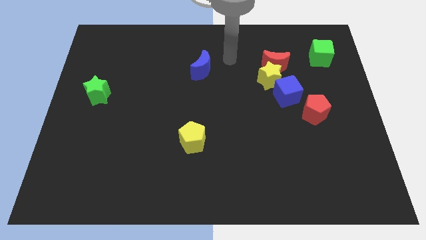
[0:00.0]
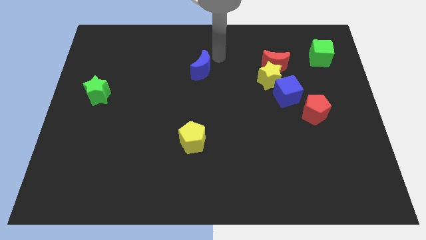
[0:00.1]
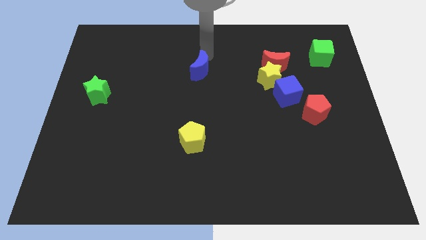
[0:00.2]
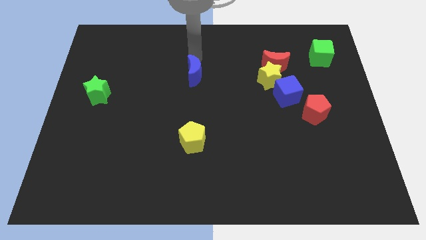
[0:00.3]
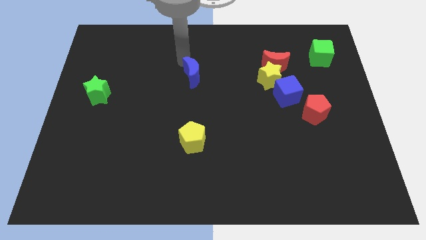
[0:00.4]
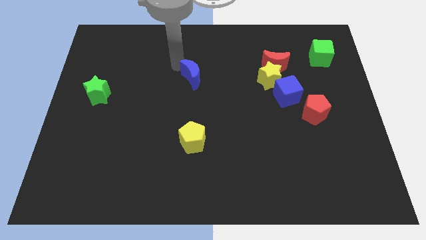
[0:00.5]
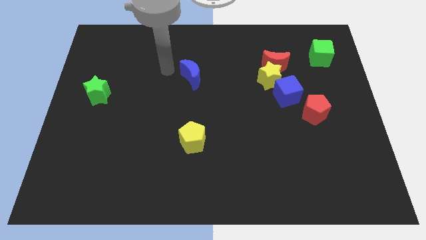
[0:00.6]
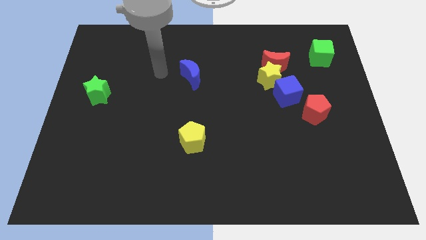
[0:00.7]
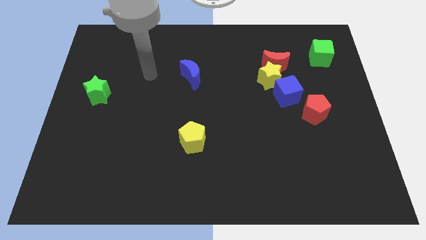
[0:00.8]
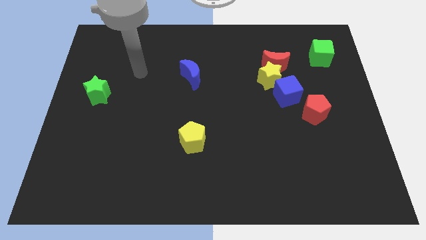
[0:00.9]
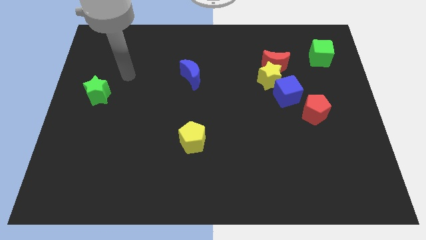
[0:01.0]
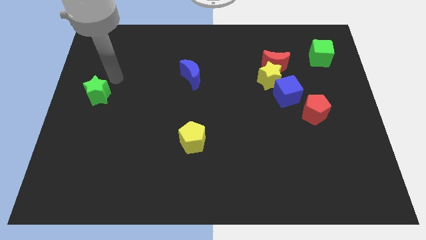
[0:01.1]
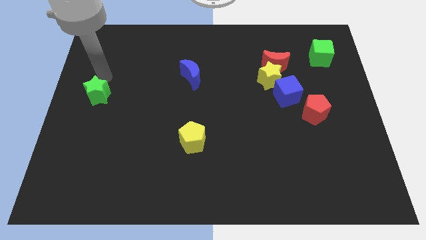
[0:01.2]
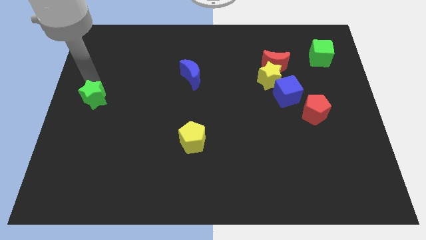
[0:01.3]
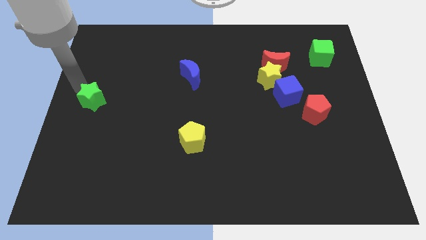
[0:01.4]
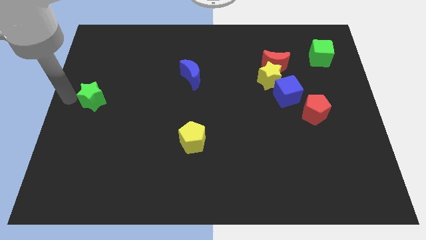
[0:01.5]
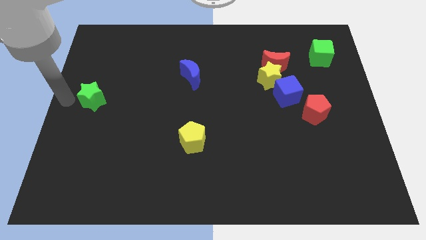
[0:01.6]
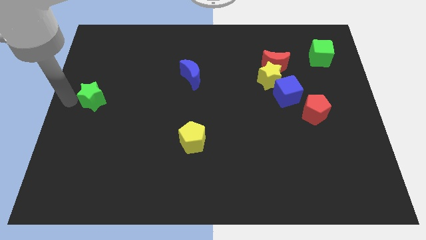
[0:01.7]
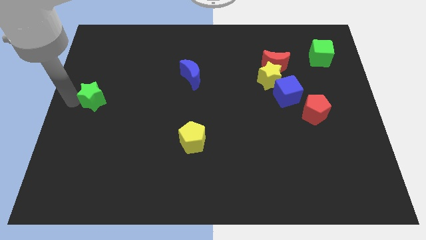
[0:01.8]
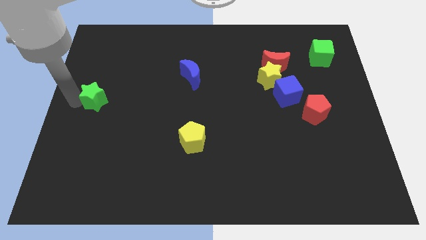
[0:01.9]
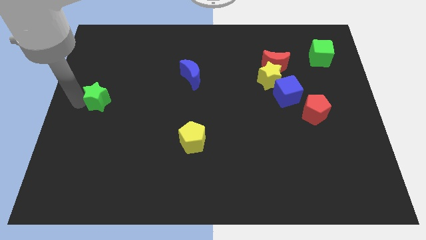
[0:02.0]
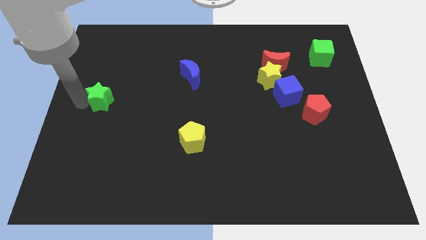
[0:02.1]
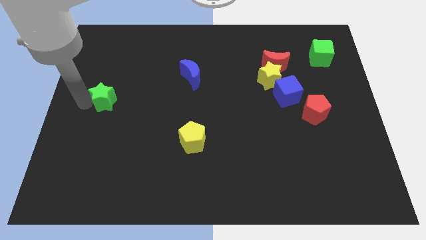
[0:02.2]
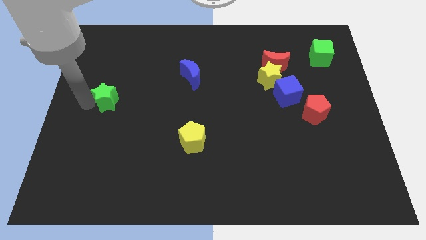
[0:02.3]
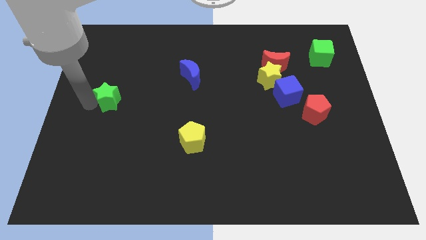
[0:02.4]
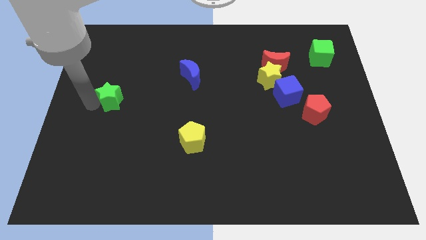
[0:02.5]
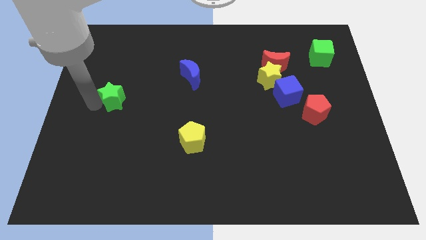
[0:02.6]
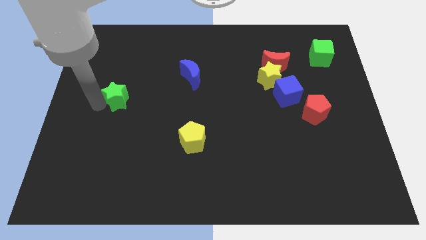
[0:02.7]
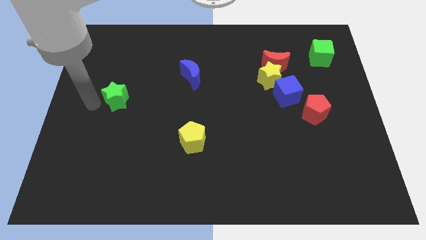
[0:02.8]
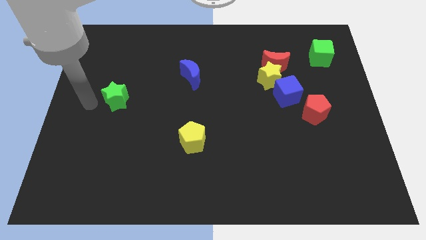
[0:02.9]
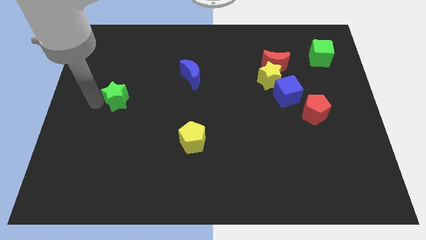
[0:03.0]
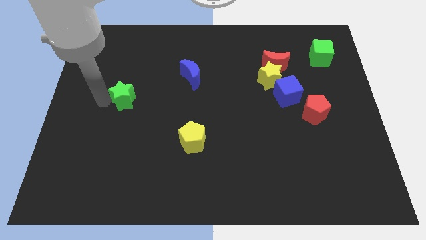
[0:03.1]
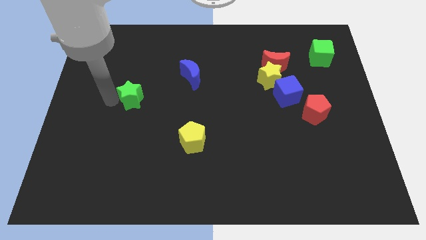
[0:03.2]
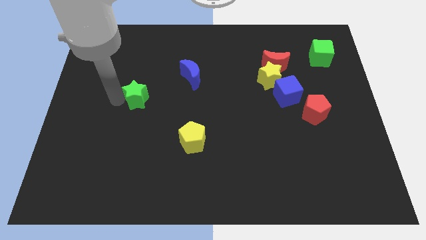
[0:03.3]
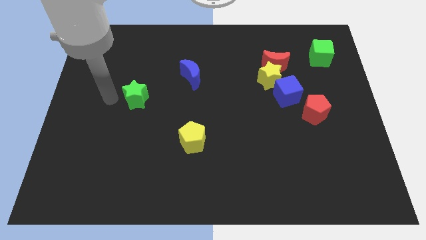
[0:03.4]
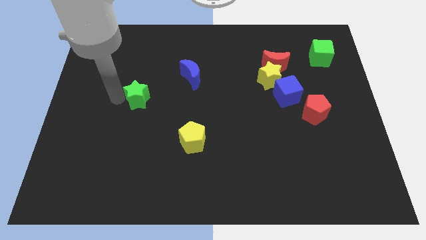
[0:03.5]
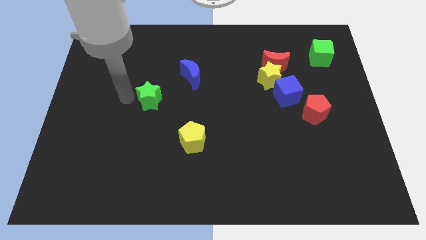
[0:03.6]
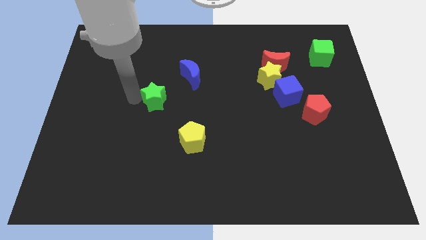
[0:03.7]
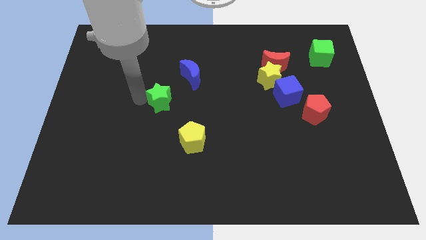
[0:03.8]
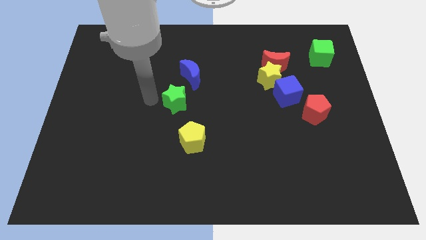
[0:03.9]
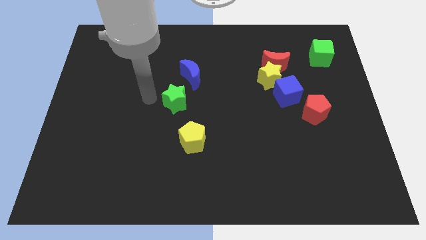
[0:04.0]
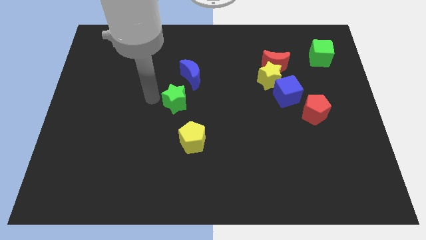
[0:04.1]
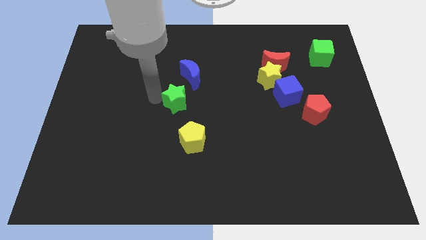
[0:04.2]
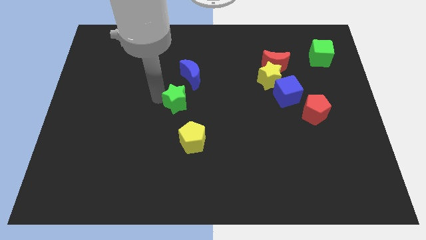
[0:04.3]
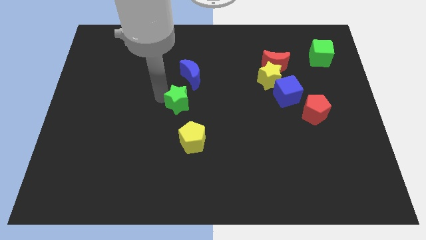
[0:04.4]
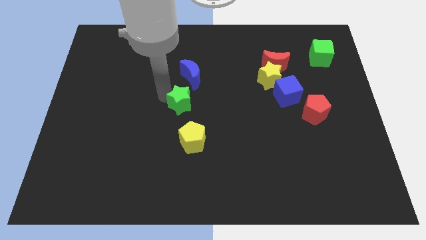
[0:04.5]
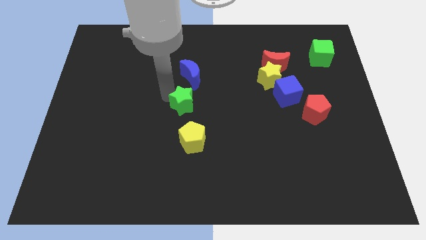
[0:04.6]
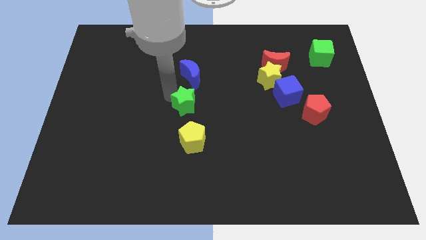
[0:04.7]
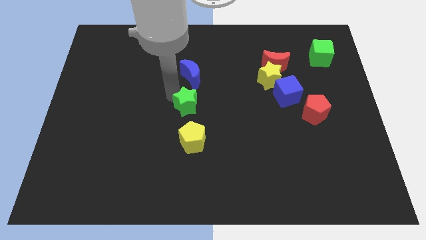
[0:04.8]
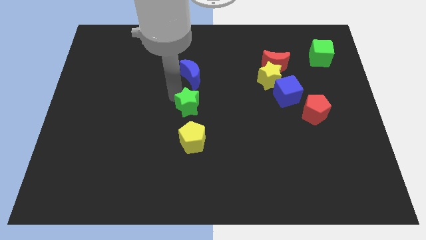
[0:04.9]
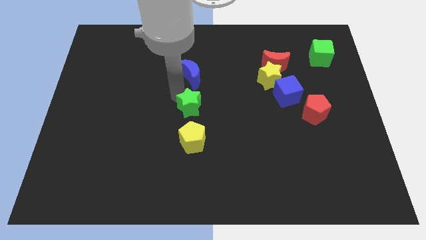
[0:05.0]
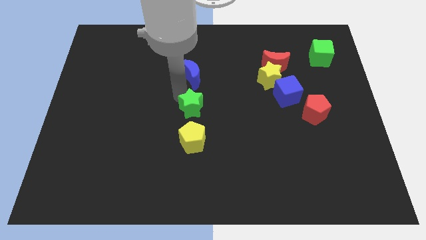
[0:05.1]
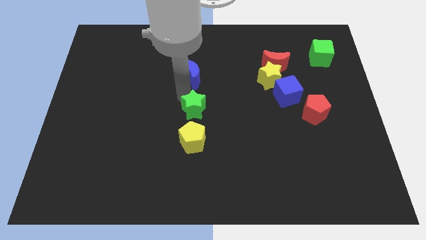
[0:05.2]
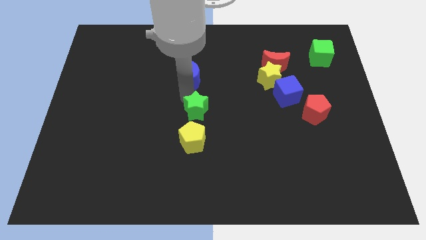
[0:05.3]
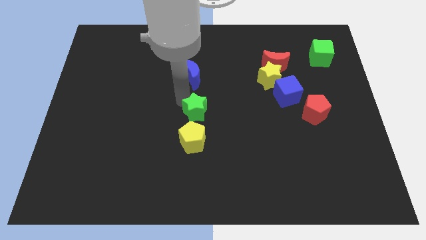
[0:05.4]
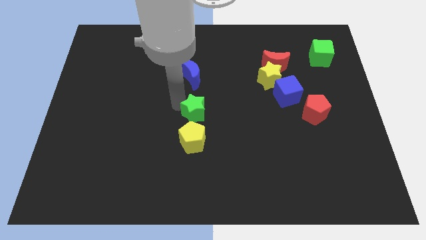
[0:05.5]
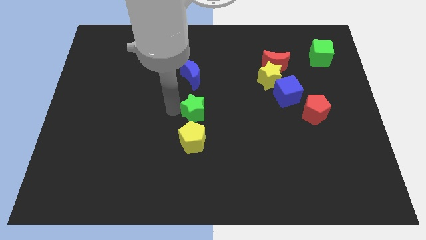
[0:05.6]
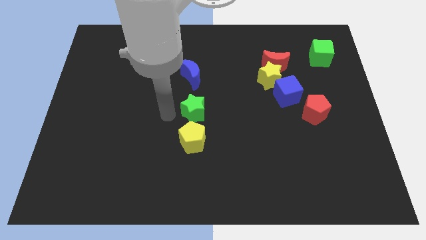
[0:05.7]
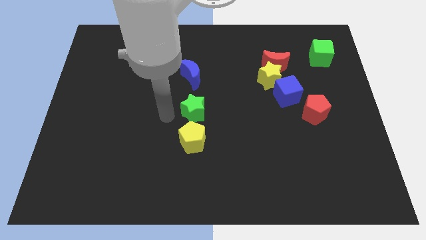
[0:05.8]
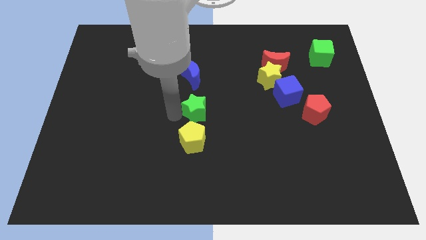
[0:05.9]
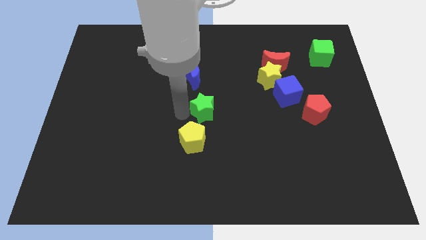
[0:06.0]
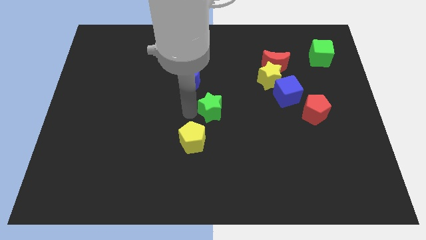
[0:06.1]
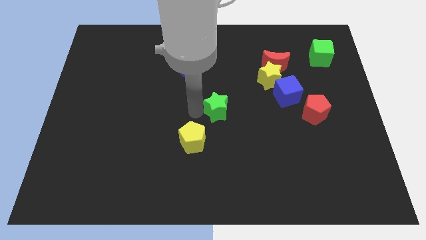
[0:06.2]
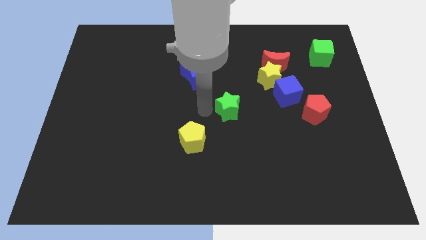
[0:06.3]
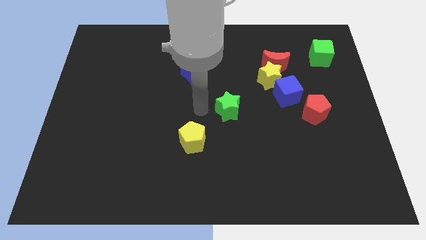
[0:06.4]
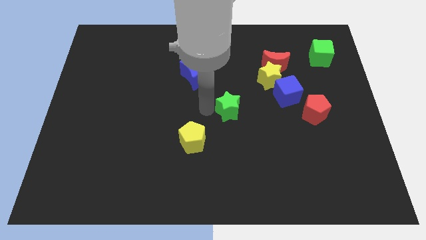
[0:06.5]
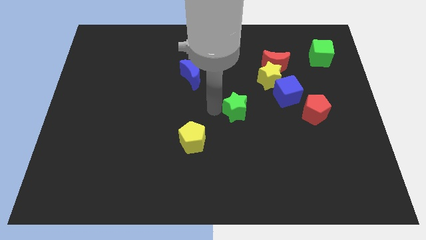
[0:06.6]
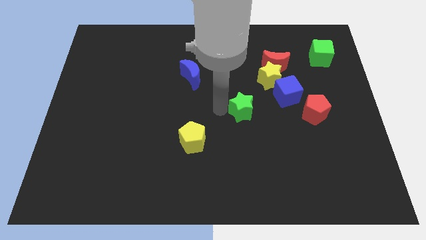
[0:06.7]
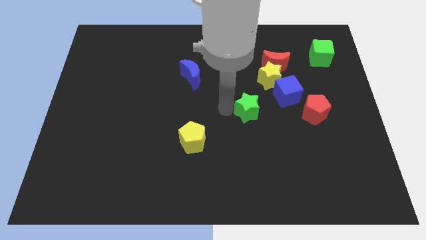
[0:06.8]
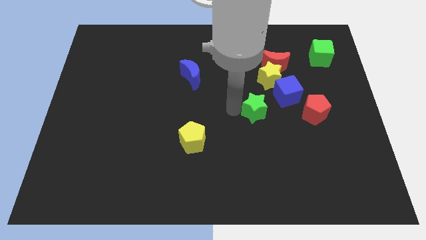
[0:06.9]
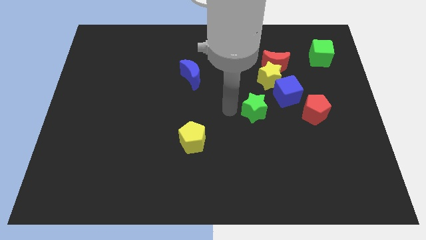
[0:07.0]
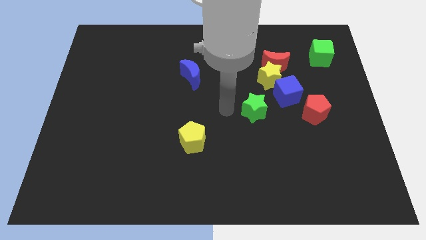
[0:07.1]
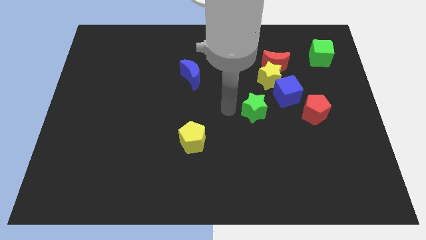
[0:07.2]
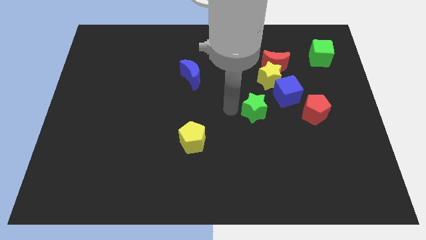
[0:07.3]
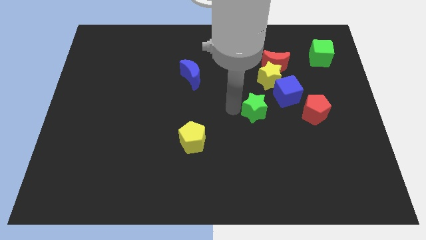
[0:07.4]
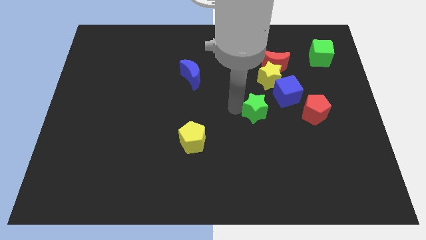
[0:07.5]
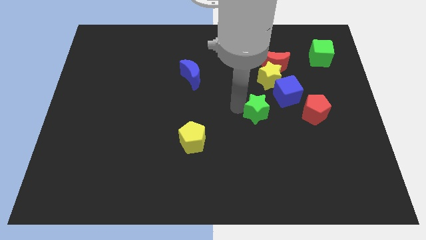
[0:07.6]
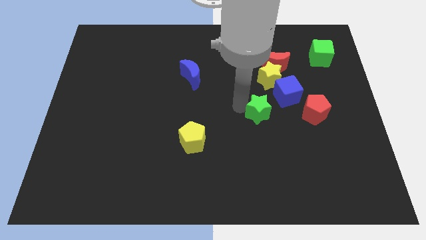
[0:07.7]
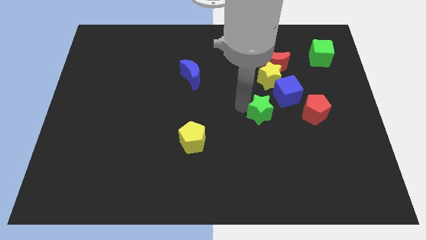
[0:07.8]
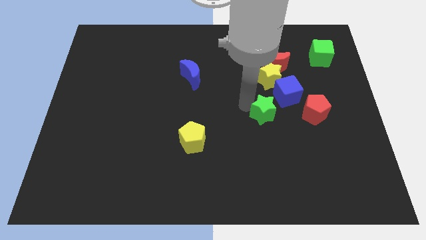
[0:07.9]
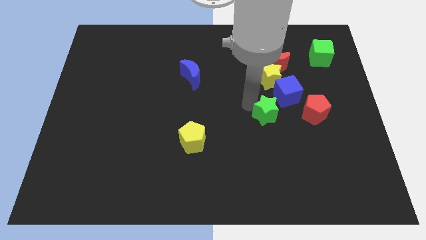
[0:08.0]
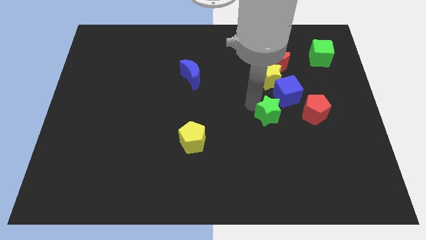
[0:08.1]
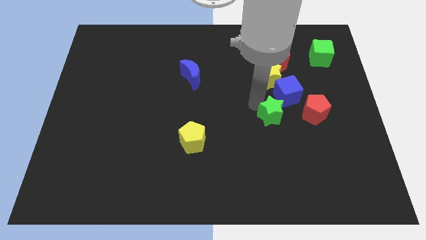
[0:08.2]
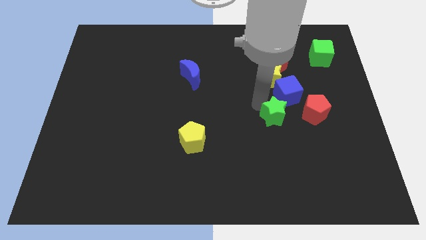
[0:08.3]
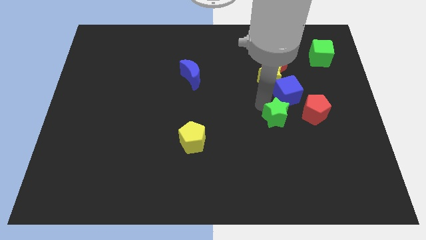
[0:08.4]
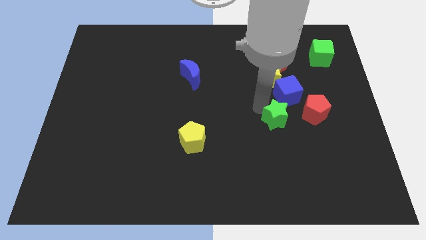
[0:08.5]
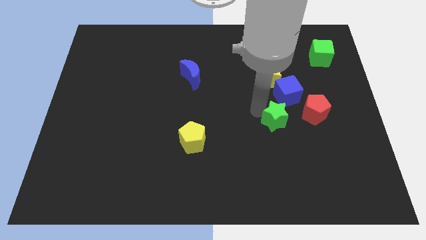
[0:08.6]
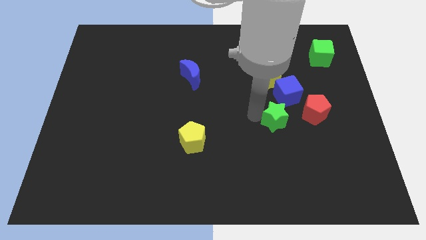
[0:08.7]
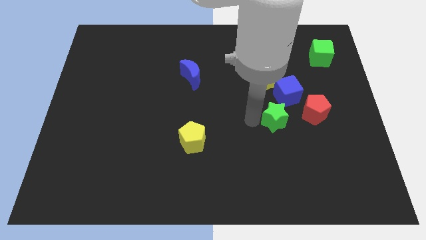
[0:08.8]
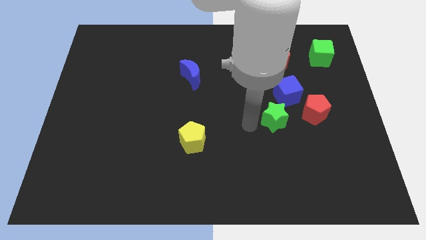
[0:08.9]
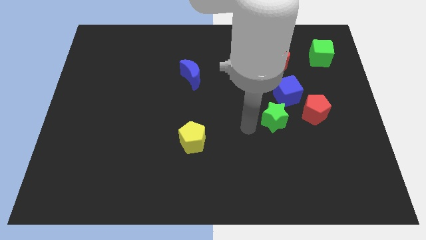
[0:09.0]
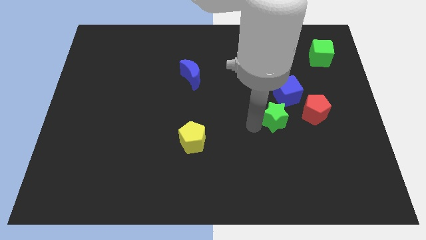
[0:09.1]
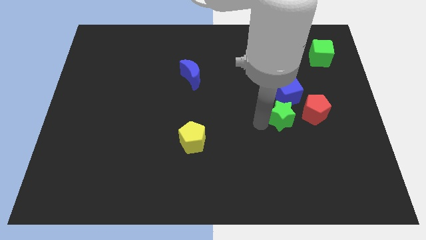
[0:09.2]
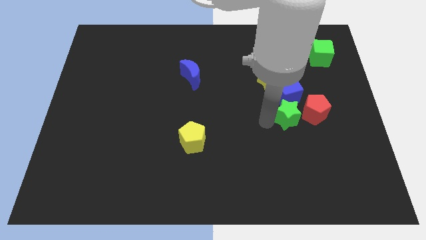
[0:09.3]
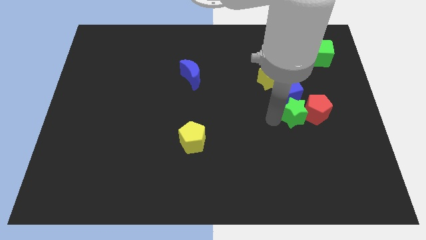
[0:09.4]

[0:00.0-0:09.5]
push the green star towards the red pentagon
